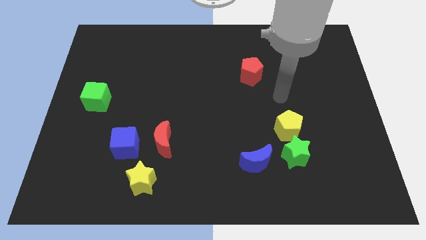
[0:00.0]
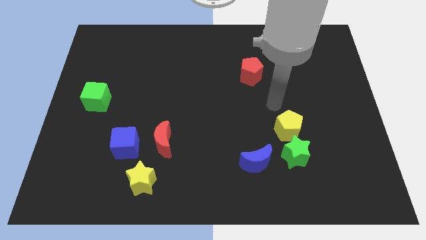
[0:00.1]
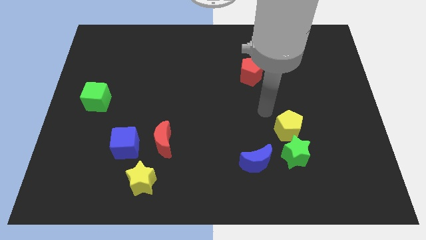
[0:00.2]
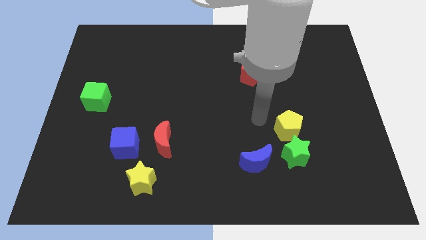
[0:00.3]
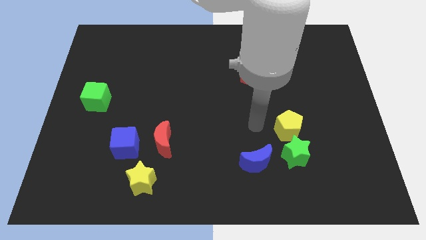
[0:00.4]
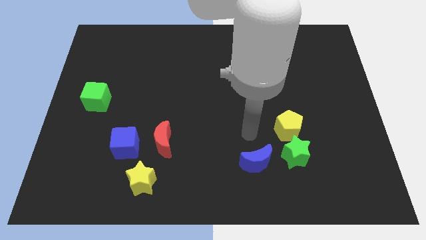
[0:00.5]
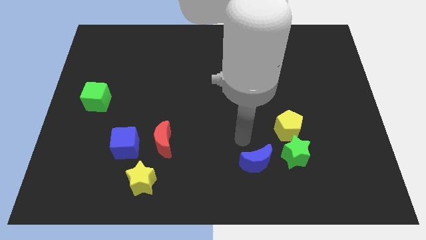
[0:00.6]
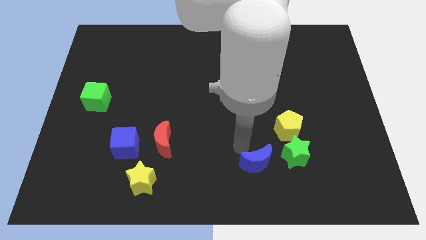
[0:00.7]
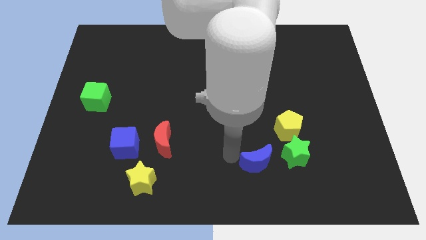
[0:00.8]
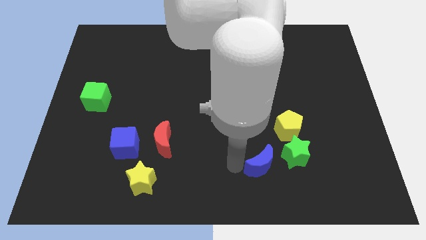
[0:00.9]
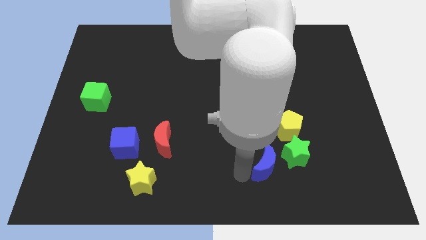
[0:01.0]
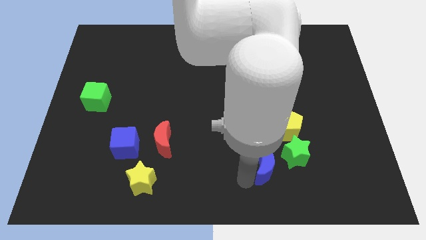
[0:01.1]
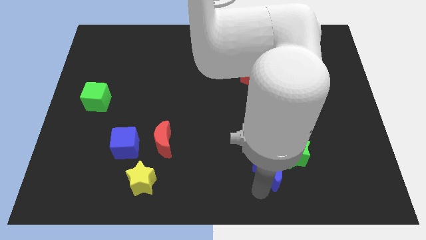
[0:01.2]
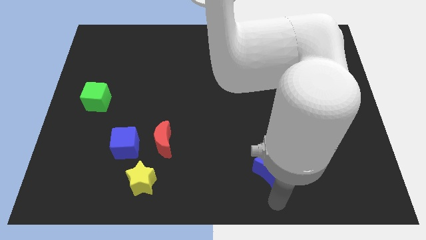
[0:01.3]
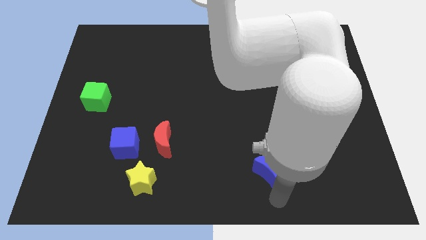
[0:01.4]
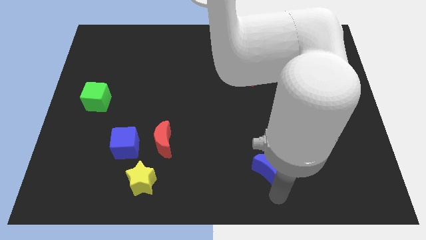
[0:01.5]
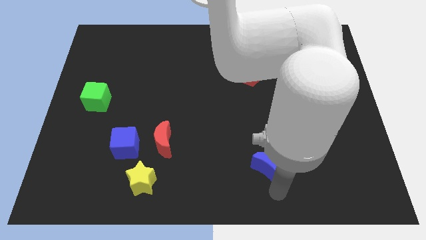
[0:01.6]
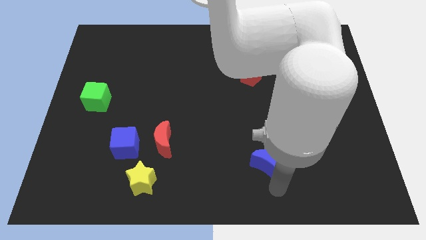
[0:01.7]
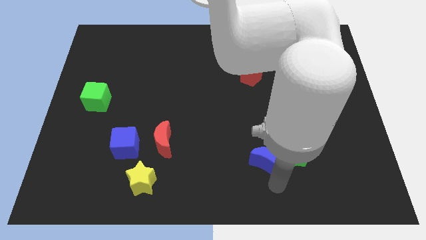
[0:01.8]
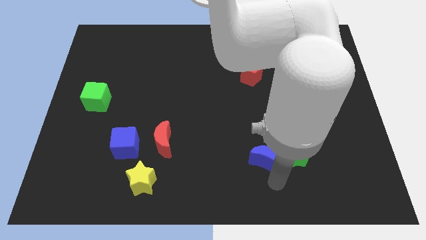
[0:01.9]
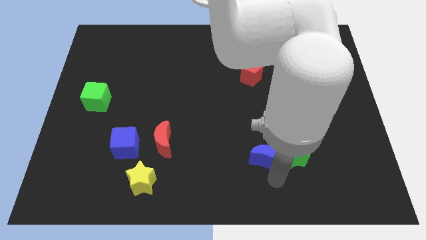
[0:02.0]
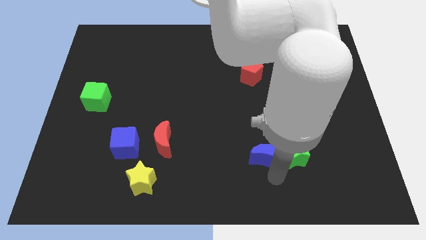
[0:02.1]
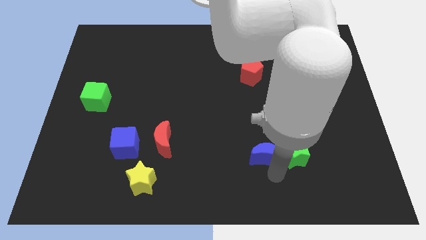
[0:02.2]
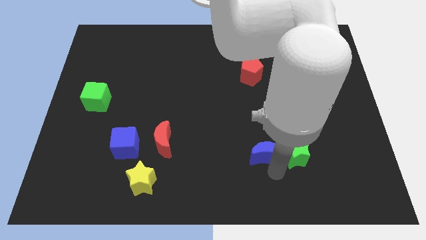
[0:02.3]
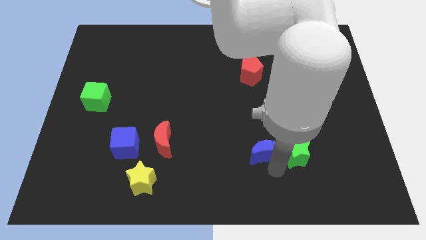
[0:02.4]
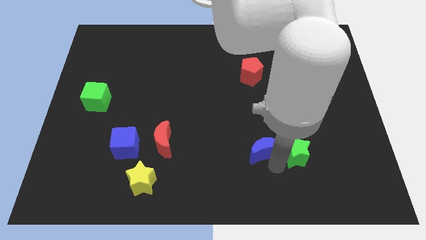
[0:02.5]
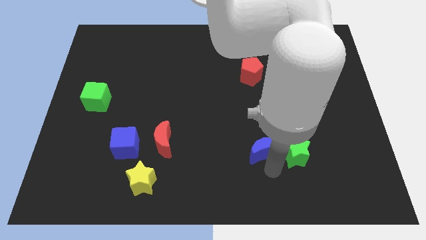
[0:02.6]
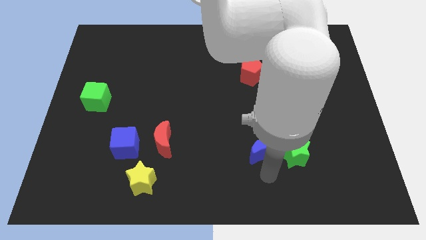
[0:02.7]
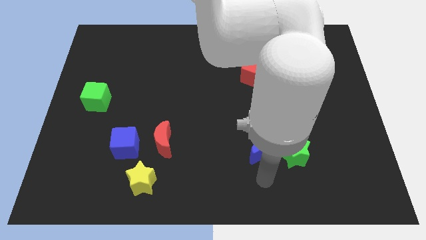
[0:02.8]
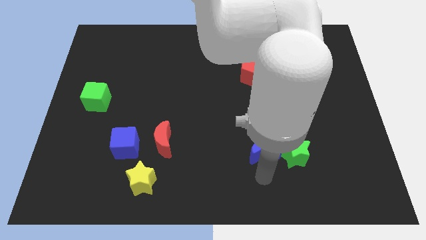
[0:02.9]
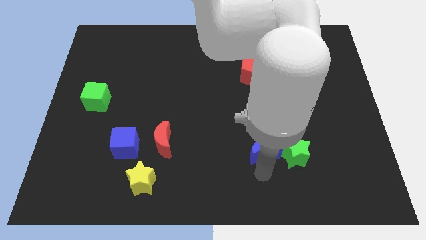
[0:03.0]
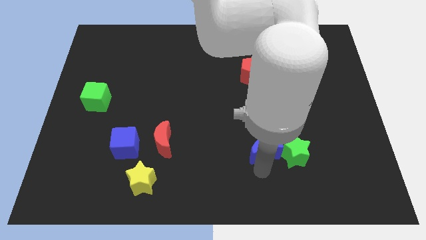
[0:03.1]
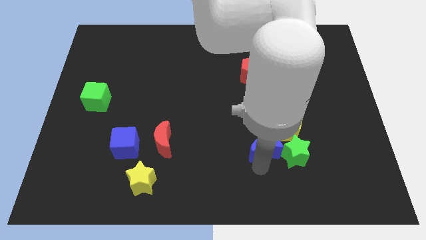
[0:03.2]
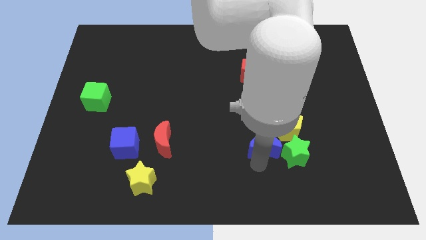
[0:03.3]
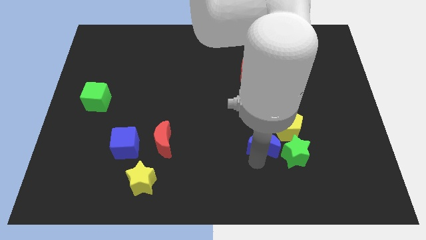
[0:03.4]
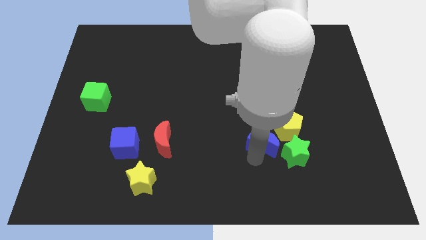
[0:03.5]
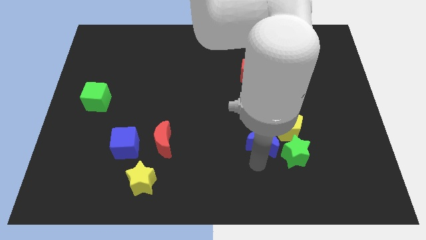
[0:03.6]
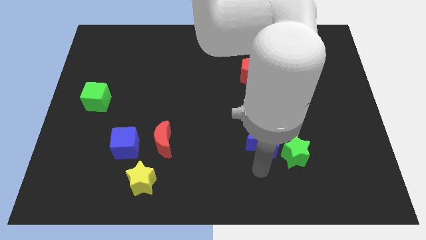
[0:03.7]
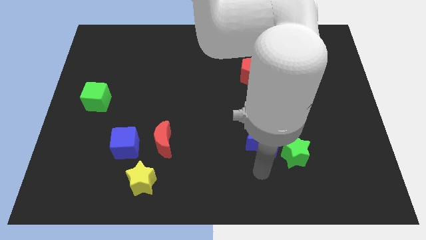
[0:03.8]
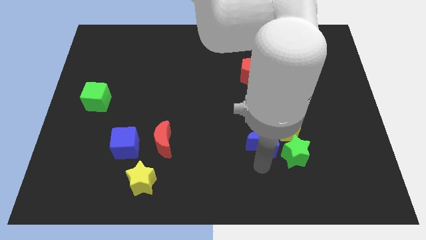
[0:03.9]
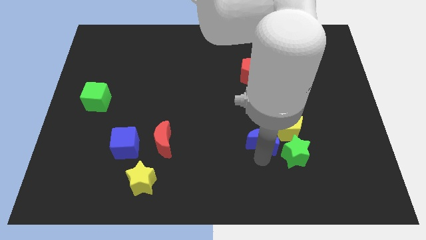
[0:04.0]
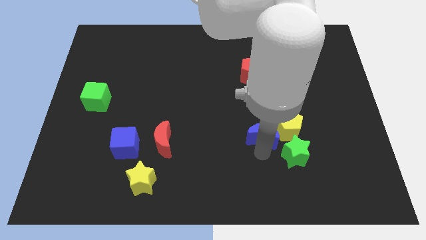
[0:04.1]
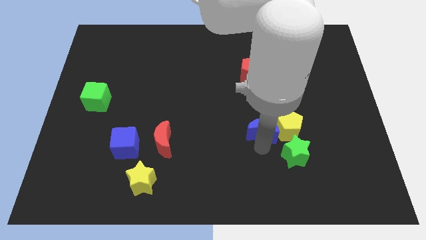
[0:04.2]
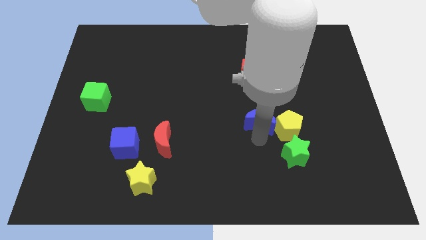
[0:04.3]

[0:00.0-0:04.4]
slide the blue moon a little bit upwards and to the right diagonally

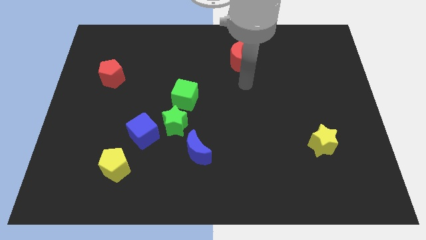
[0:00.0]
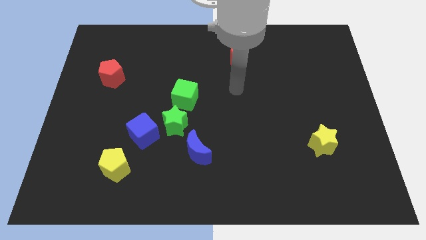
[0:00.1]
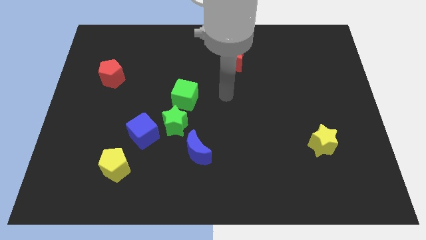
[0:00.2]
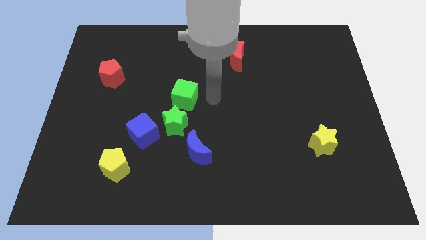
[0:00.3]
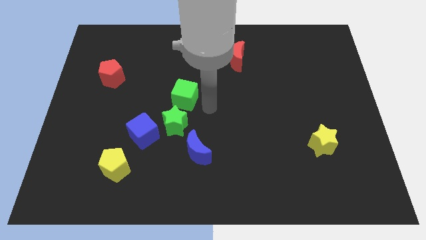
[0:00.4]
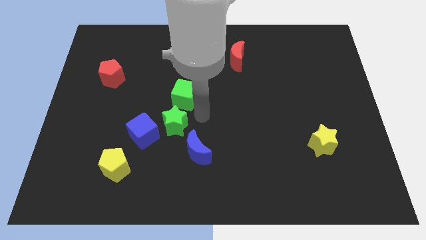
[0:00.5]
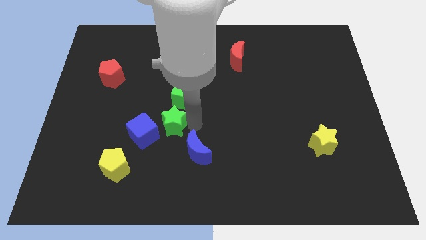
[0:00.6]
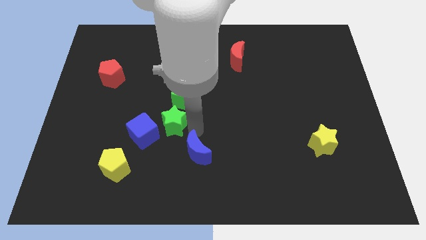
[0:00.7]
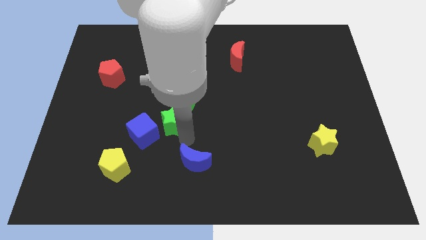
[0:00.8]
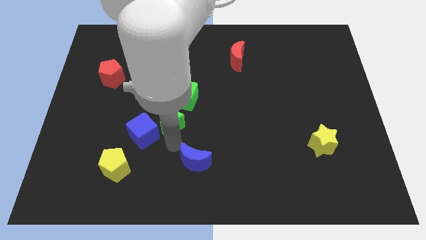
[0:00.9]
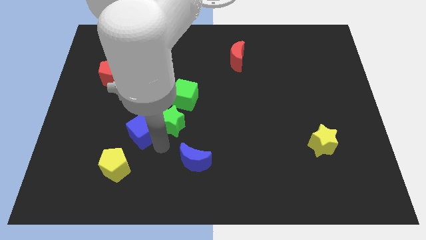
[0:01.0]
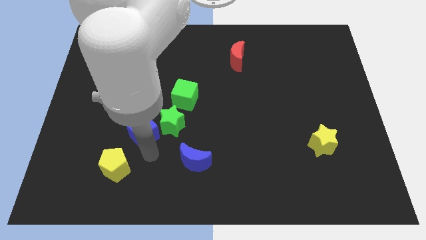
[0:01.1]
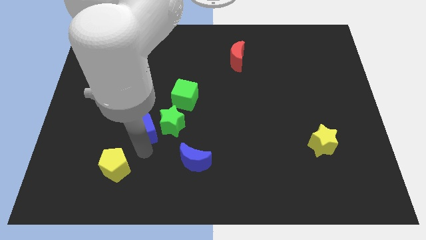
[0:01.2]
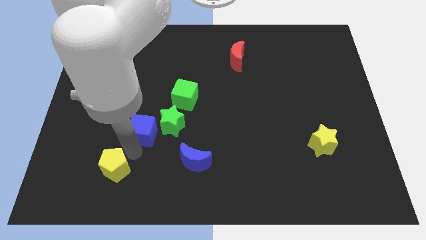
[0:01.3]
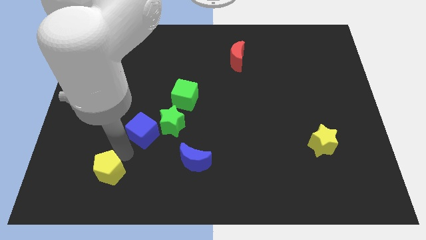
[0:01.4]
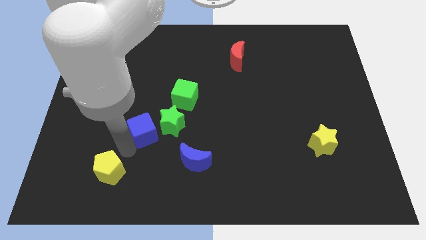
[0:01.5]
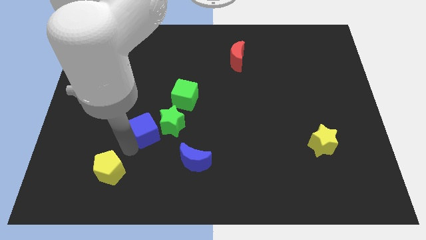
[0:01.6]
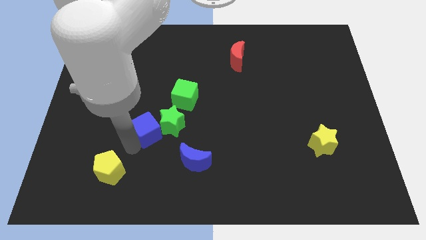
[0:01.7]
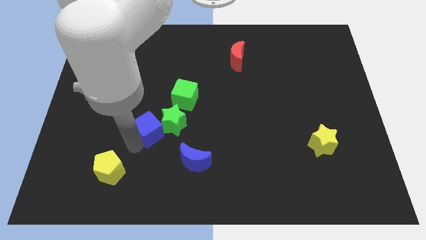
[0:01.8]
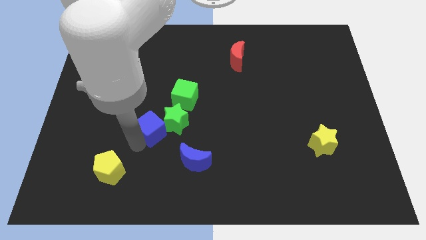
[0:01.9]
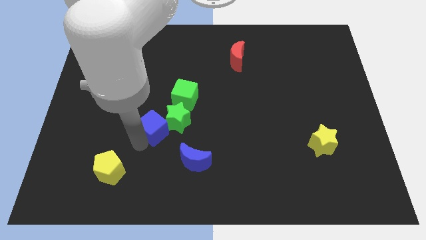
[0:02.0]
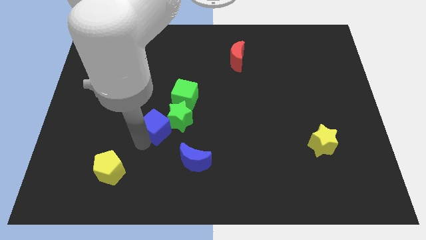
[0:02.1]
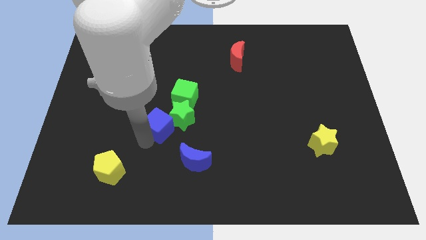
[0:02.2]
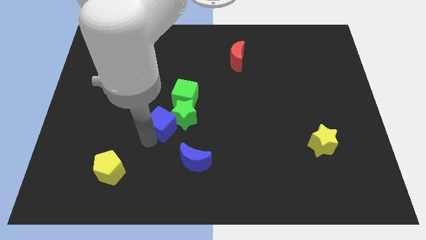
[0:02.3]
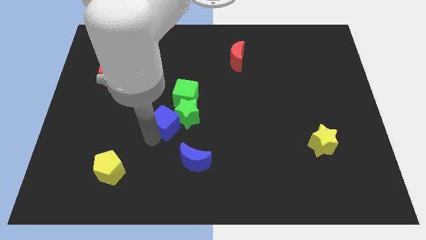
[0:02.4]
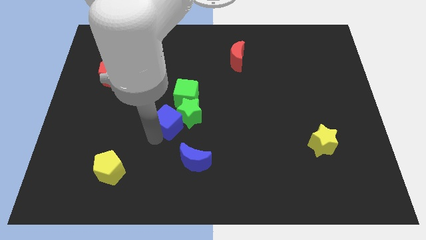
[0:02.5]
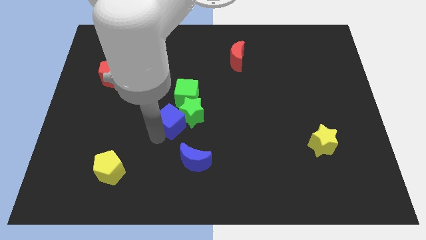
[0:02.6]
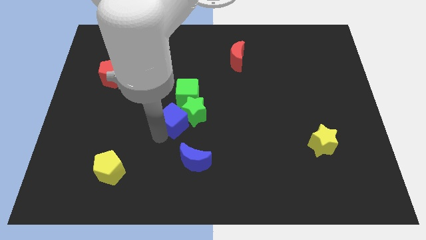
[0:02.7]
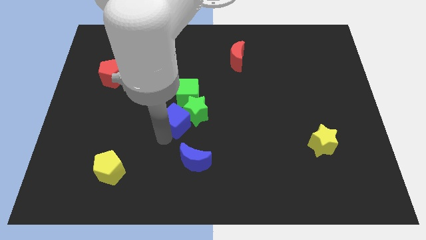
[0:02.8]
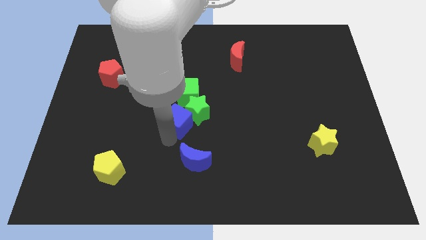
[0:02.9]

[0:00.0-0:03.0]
slightly move the blue cube upwards and to the right diagonally

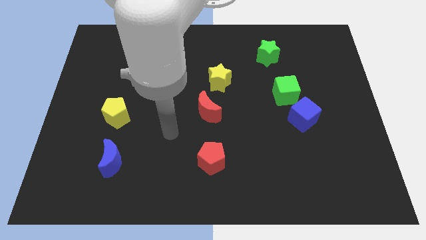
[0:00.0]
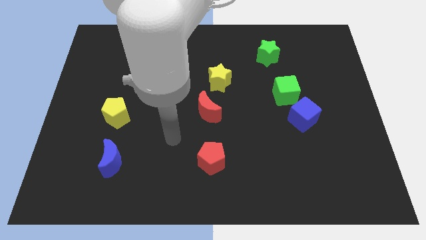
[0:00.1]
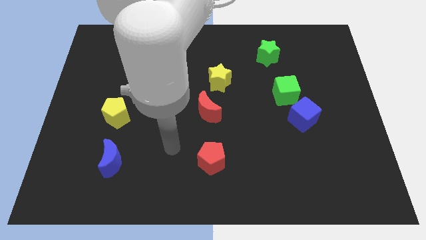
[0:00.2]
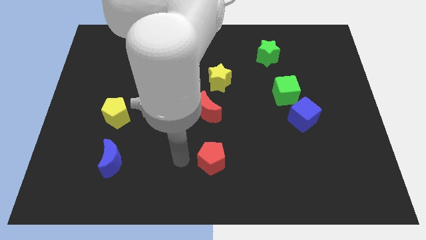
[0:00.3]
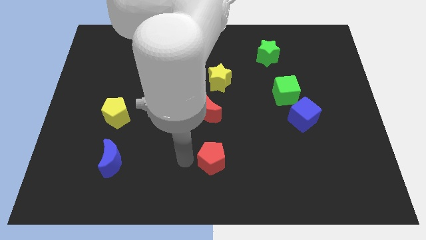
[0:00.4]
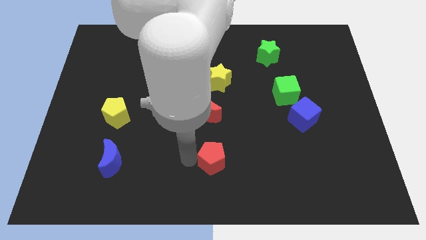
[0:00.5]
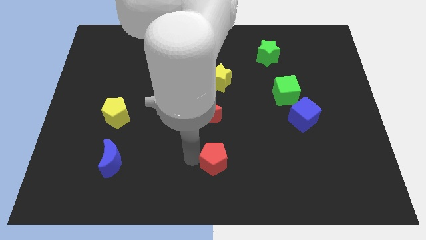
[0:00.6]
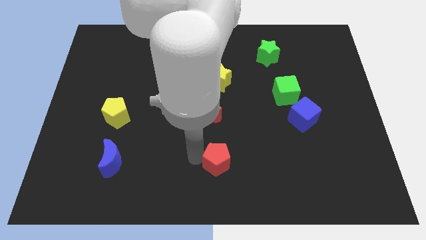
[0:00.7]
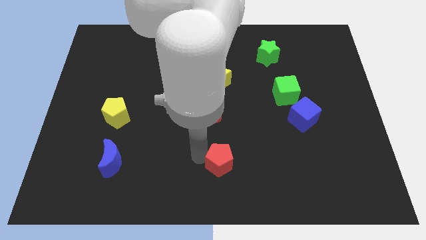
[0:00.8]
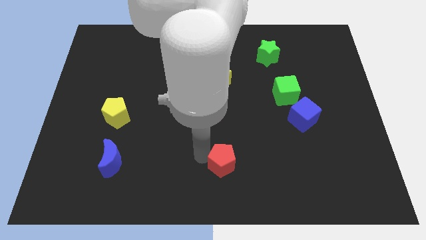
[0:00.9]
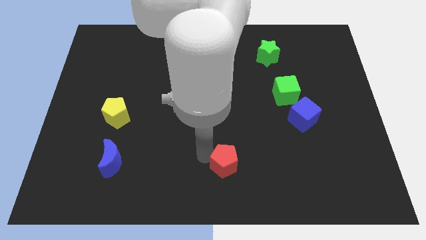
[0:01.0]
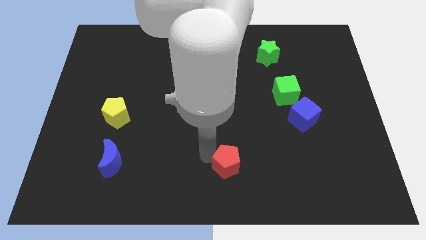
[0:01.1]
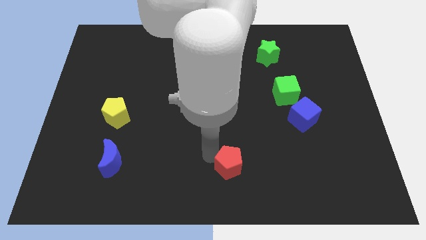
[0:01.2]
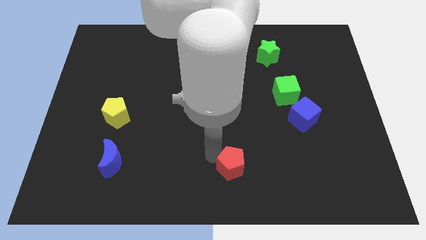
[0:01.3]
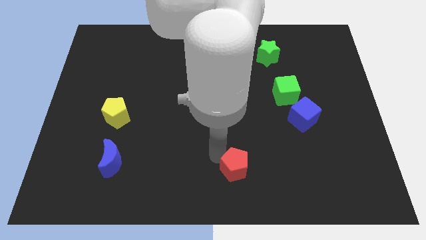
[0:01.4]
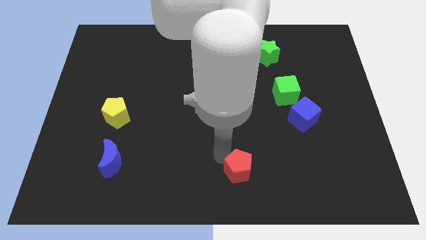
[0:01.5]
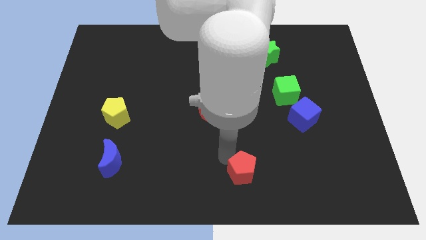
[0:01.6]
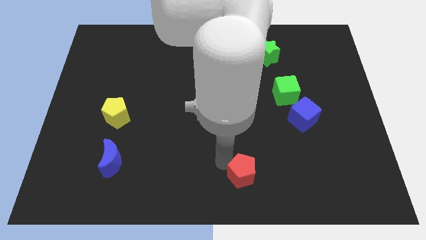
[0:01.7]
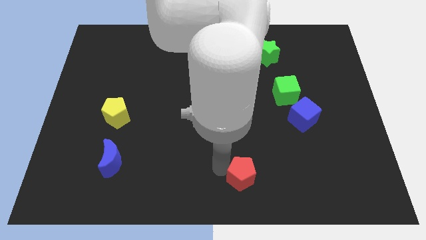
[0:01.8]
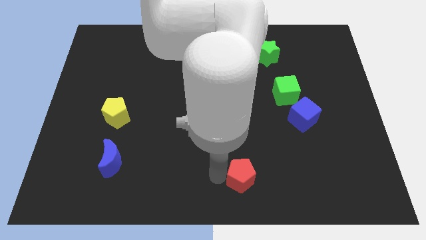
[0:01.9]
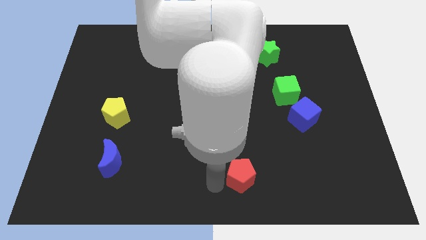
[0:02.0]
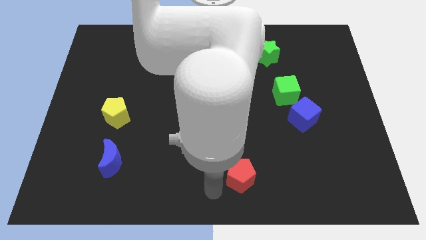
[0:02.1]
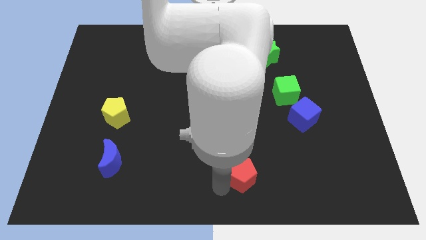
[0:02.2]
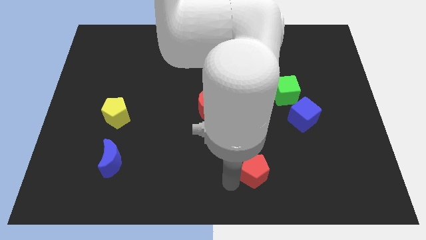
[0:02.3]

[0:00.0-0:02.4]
slightly slide the red pentagon to the right
